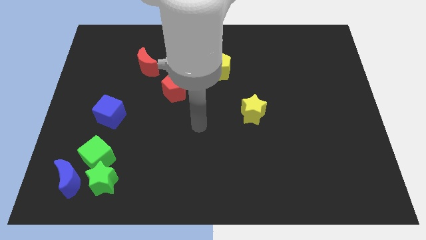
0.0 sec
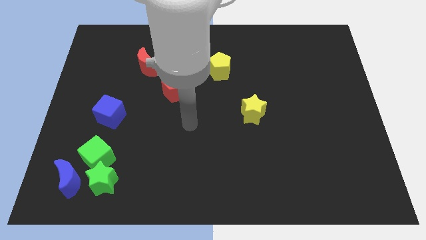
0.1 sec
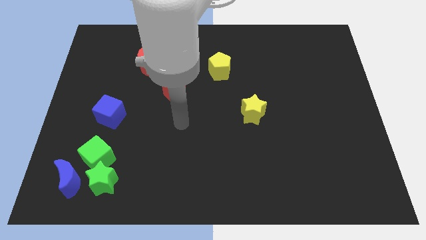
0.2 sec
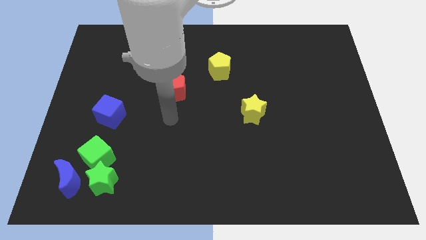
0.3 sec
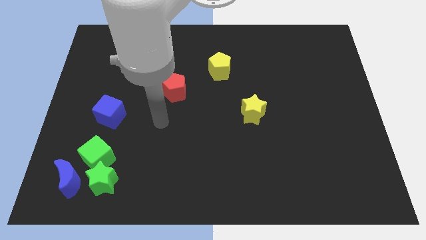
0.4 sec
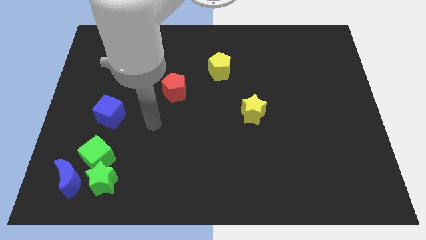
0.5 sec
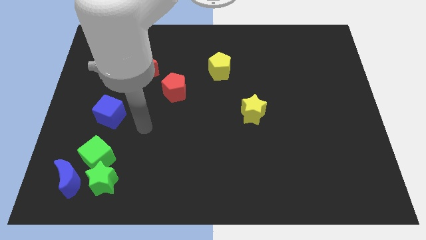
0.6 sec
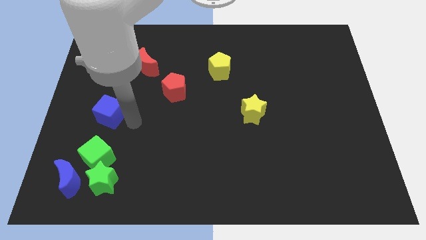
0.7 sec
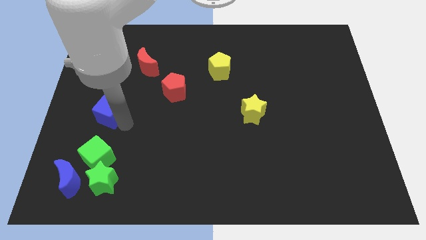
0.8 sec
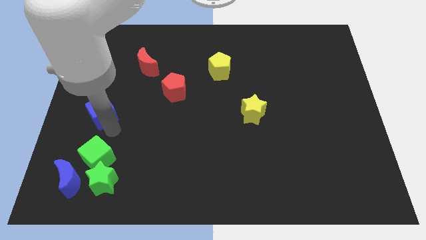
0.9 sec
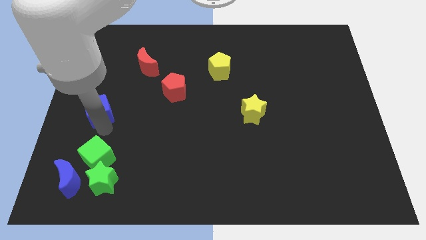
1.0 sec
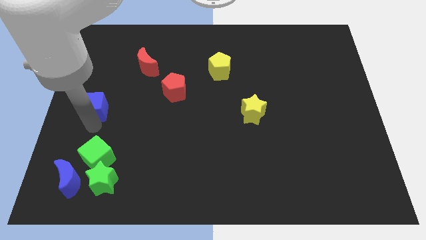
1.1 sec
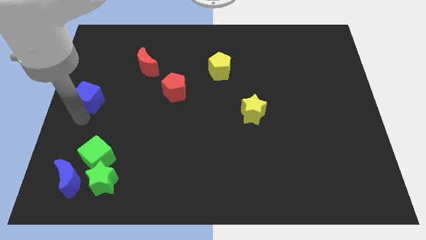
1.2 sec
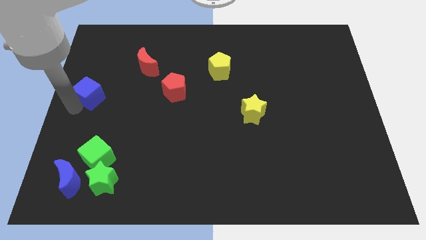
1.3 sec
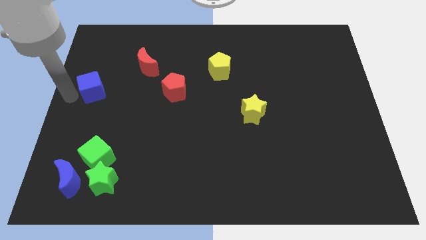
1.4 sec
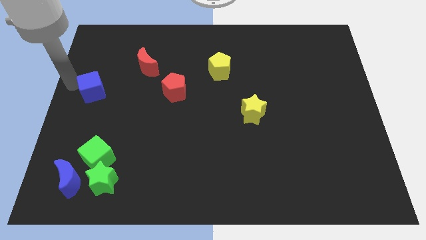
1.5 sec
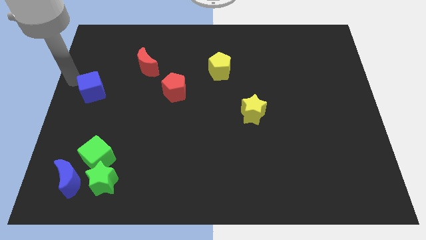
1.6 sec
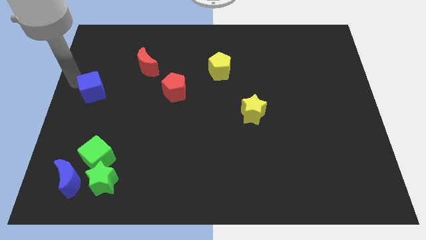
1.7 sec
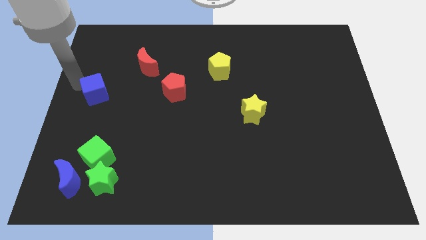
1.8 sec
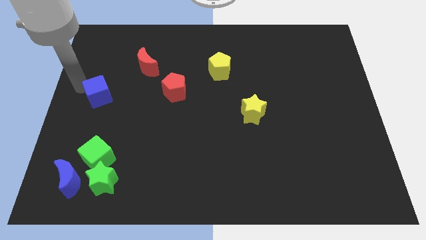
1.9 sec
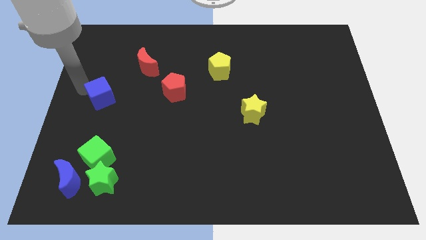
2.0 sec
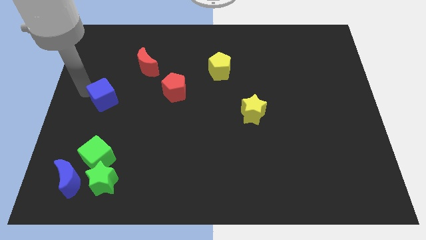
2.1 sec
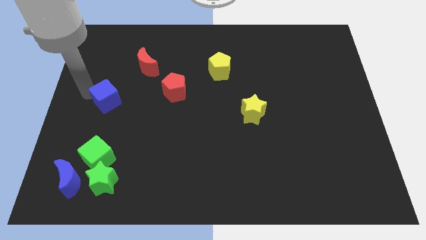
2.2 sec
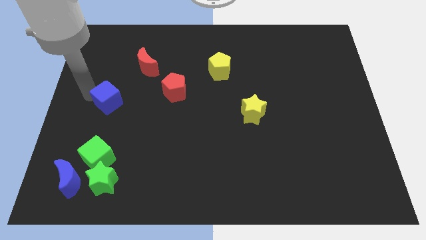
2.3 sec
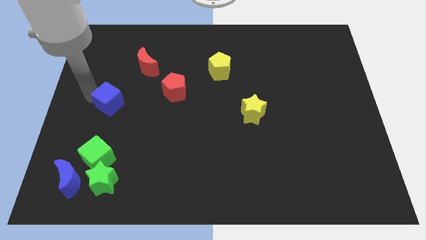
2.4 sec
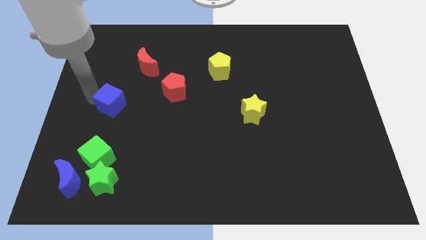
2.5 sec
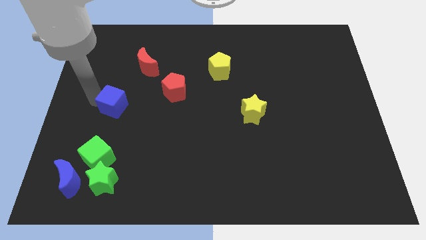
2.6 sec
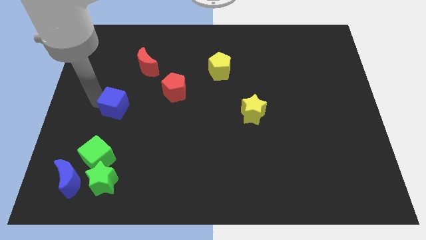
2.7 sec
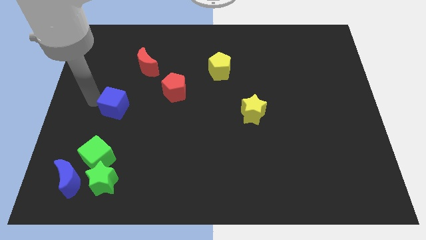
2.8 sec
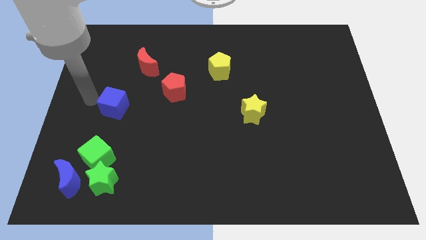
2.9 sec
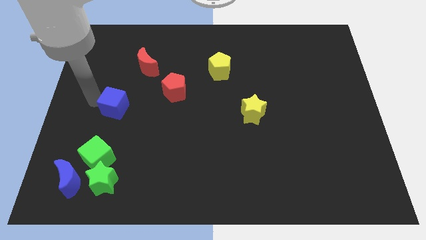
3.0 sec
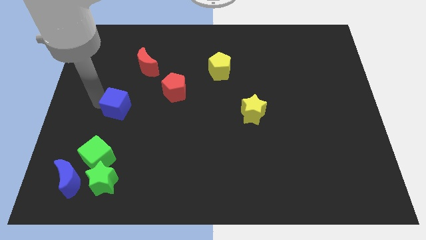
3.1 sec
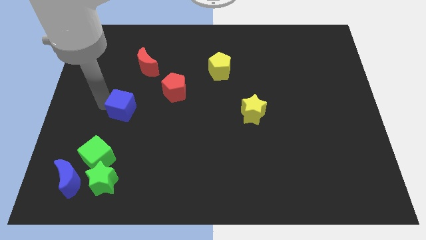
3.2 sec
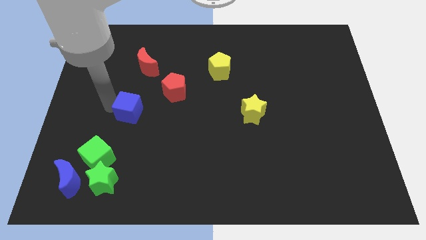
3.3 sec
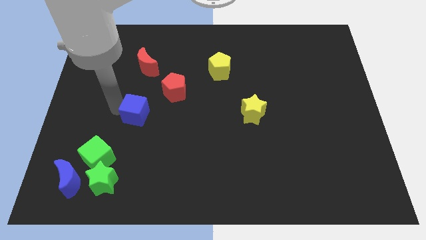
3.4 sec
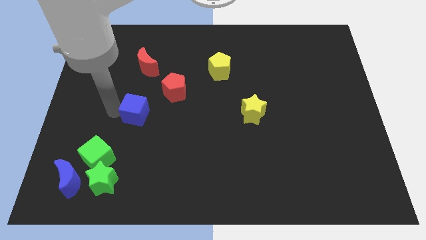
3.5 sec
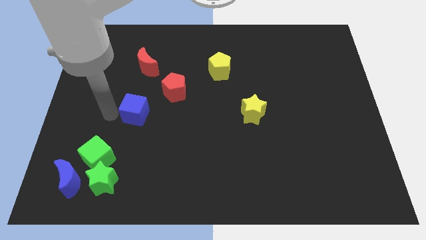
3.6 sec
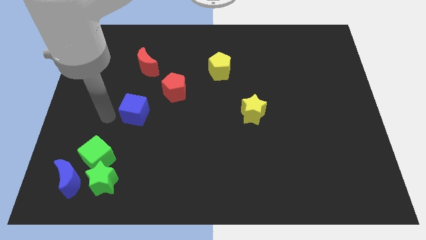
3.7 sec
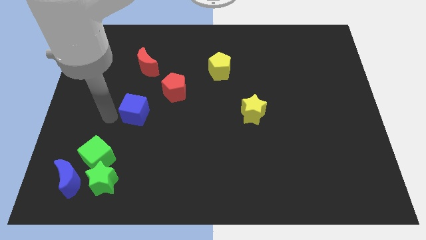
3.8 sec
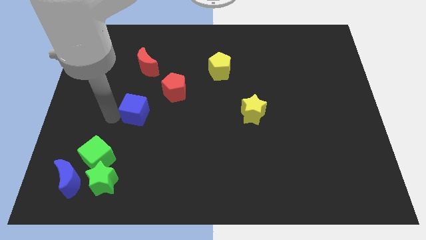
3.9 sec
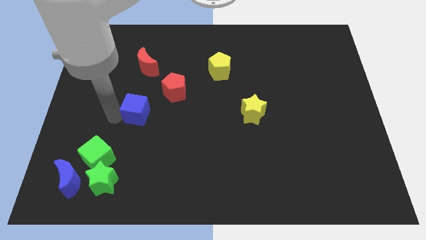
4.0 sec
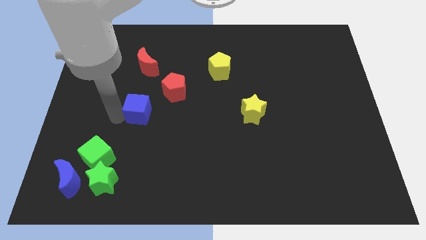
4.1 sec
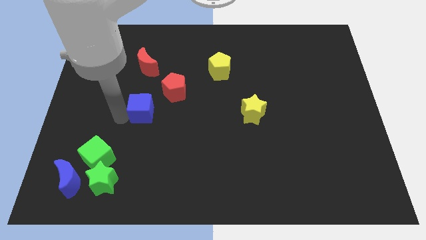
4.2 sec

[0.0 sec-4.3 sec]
push the blue cube a little bit to the right

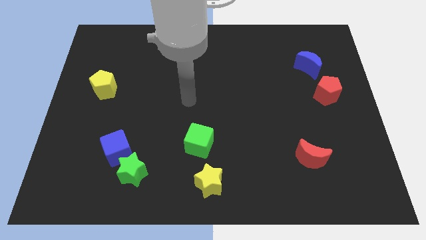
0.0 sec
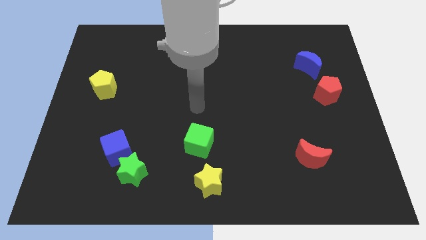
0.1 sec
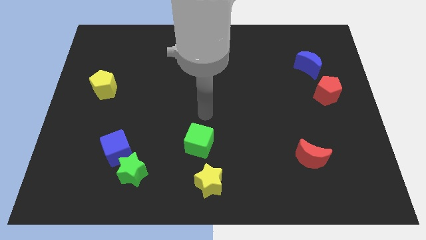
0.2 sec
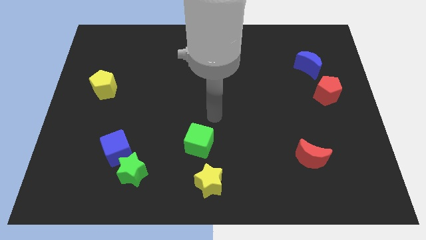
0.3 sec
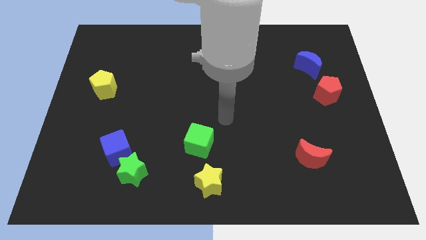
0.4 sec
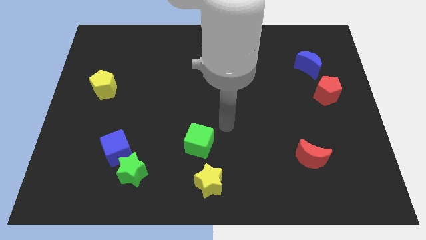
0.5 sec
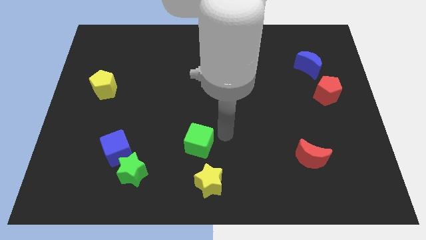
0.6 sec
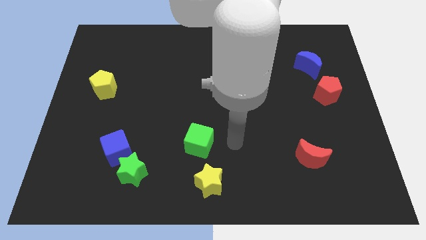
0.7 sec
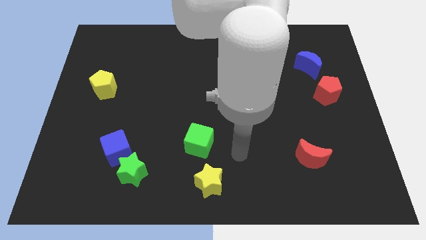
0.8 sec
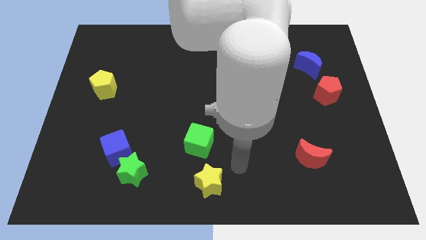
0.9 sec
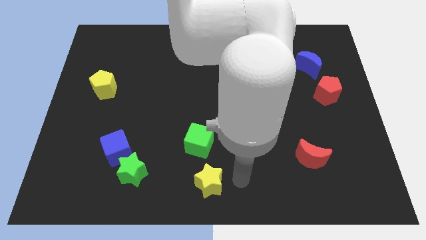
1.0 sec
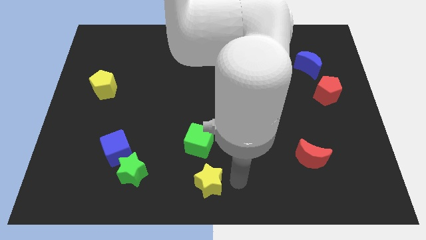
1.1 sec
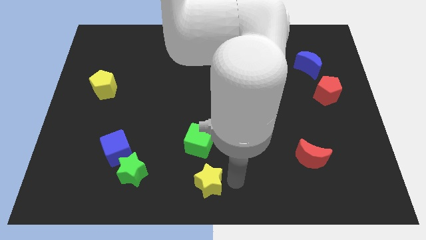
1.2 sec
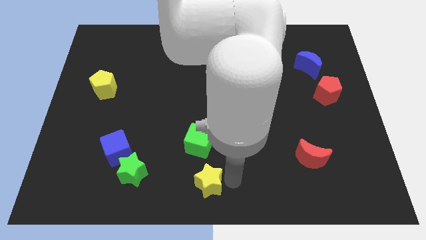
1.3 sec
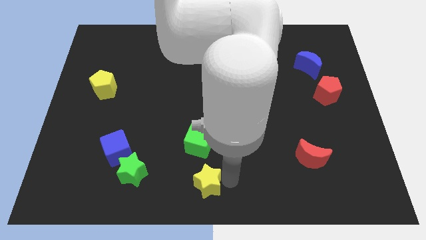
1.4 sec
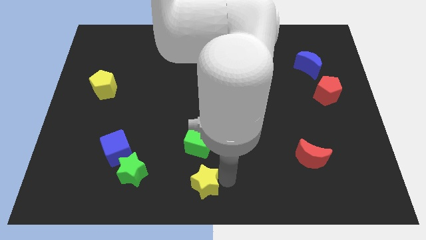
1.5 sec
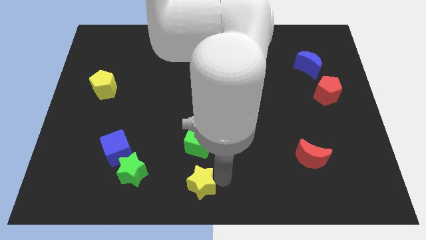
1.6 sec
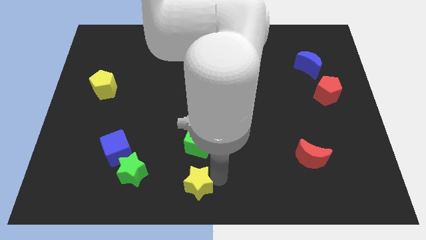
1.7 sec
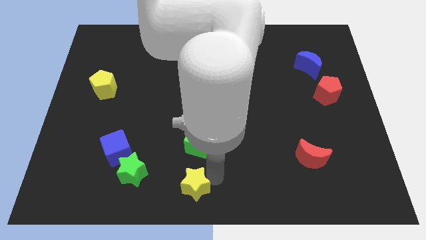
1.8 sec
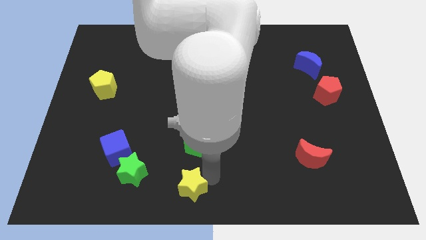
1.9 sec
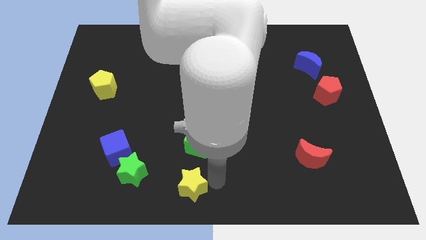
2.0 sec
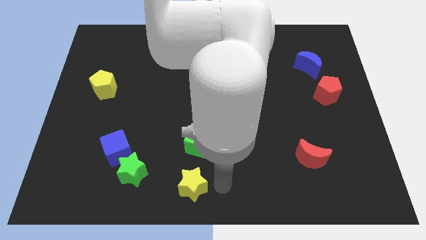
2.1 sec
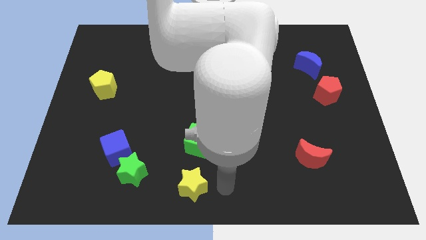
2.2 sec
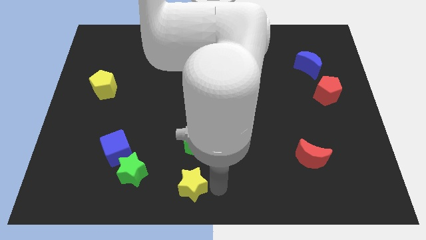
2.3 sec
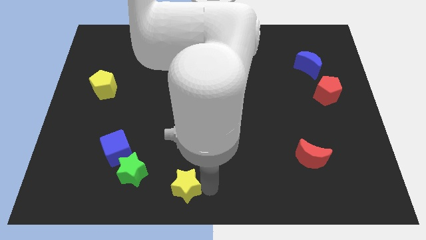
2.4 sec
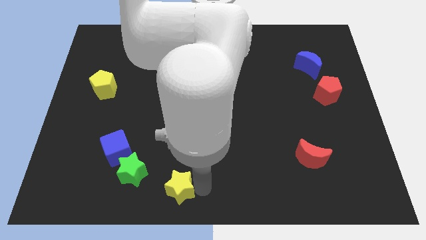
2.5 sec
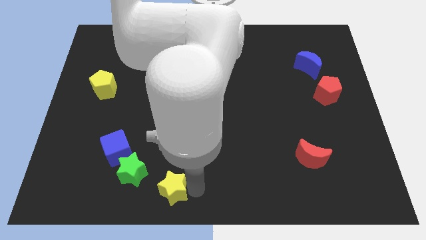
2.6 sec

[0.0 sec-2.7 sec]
slide the yellow star a little bit to the left

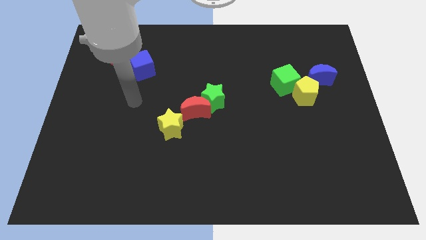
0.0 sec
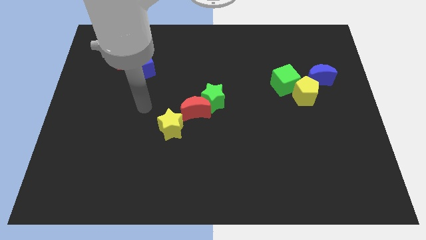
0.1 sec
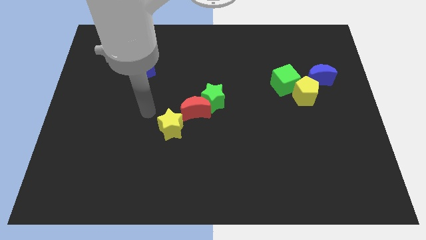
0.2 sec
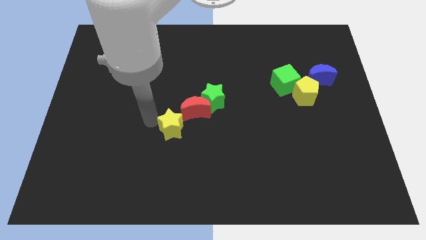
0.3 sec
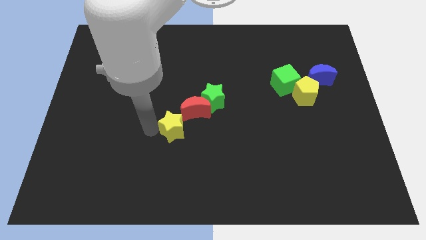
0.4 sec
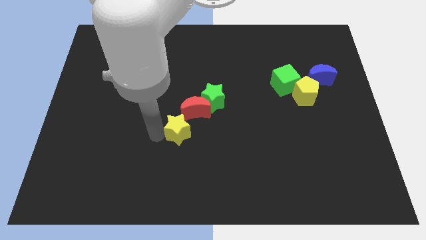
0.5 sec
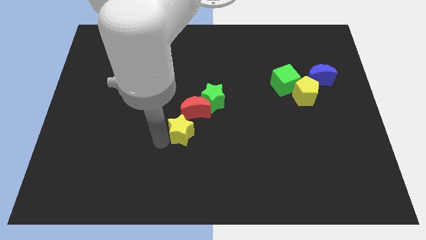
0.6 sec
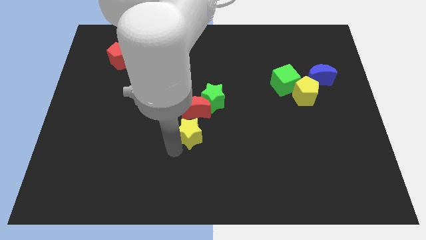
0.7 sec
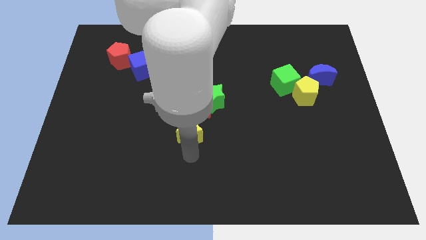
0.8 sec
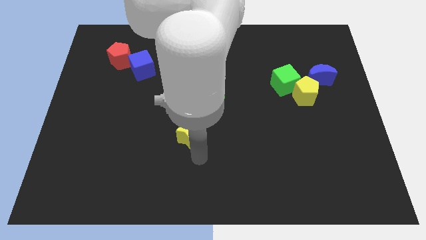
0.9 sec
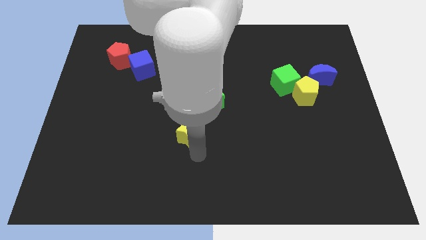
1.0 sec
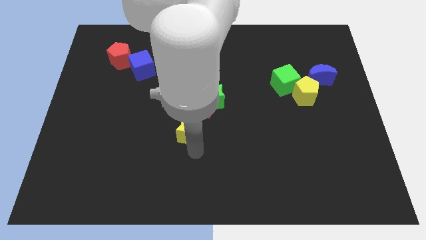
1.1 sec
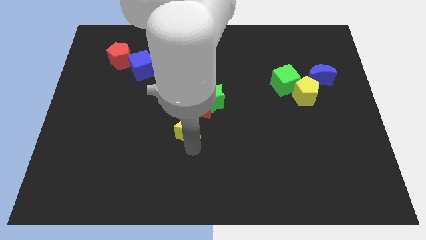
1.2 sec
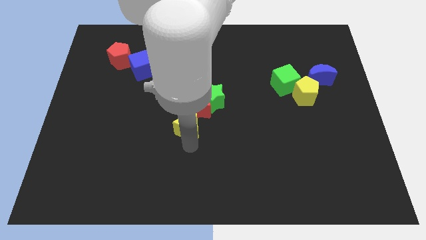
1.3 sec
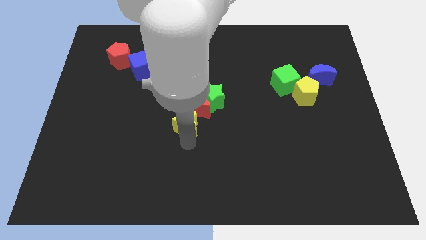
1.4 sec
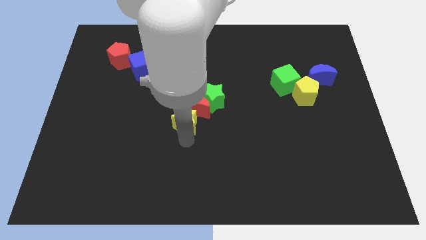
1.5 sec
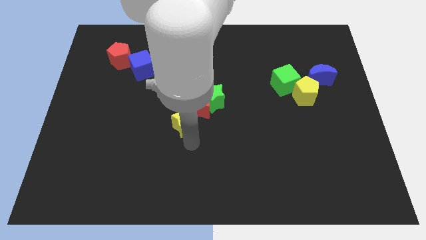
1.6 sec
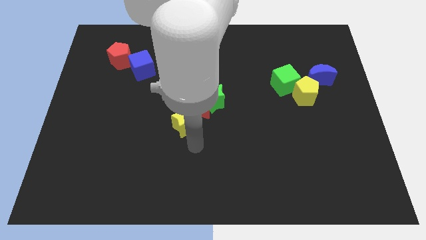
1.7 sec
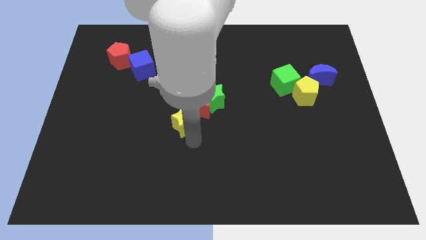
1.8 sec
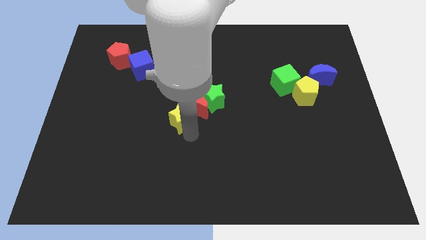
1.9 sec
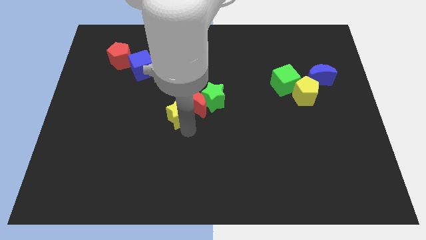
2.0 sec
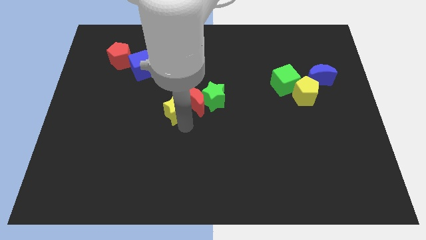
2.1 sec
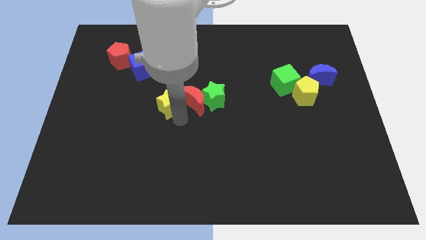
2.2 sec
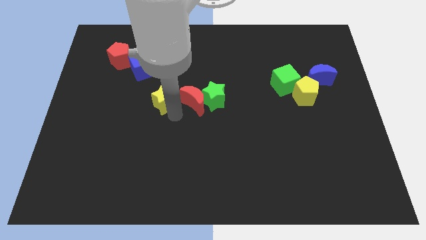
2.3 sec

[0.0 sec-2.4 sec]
slightly move the yellow star upwards
